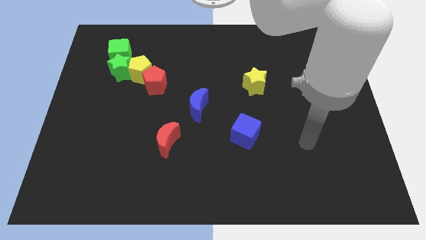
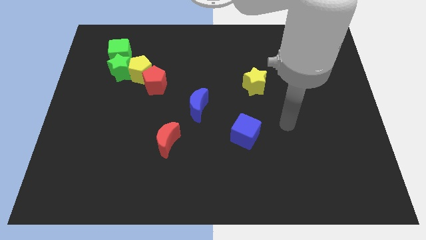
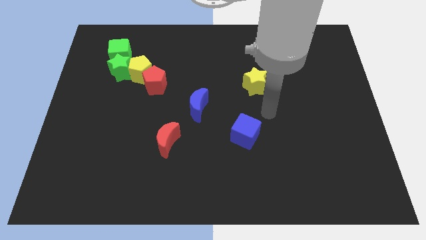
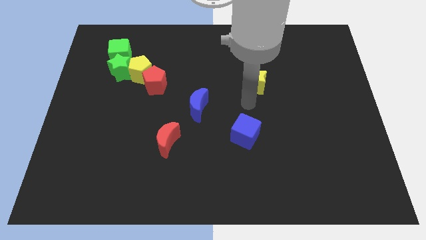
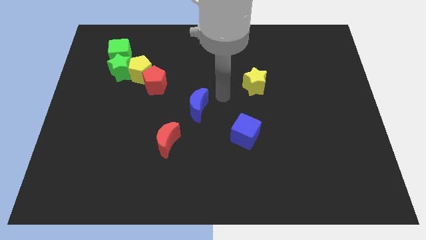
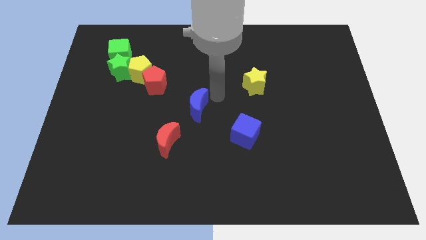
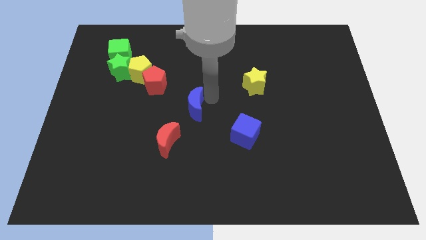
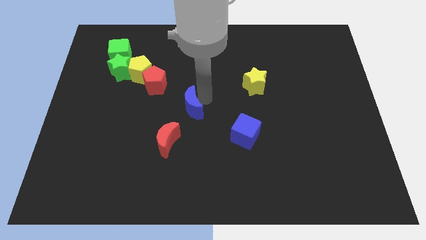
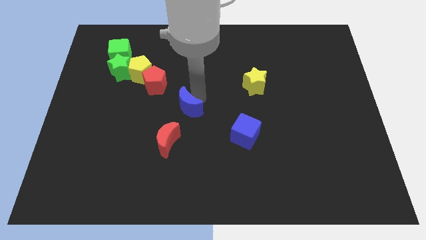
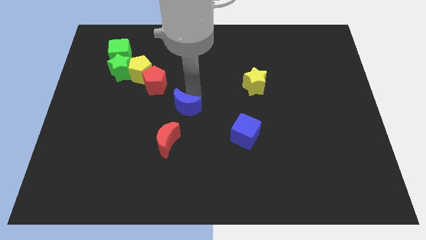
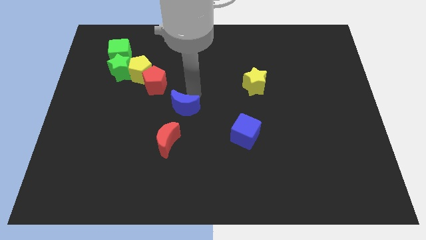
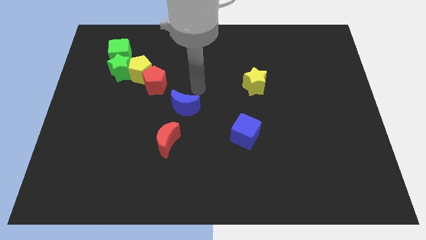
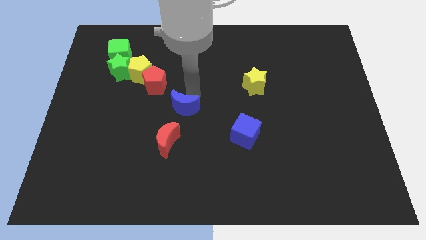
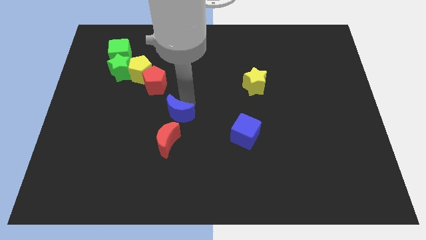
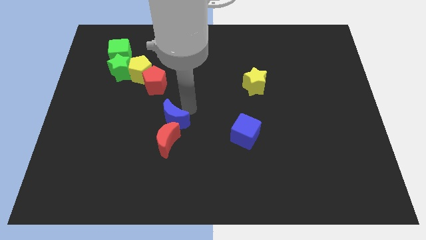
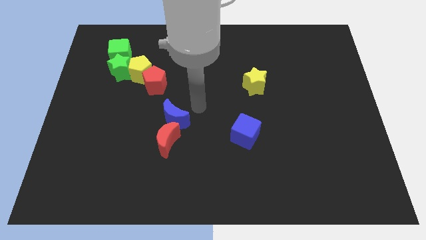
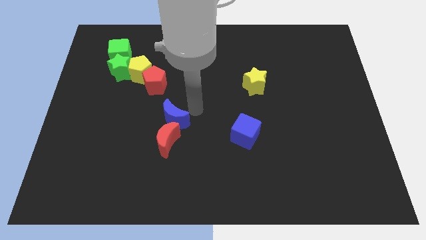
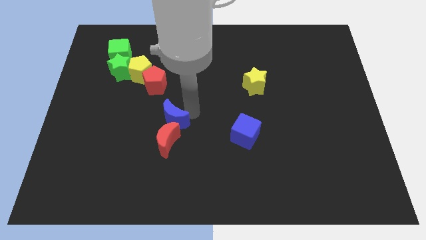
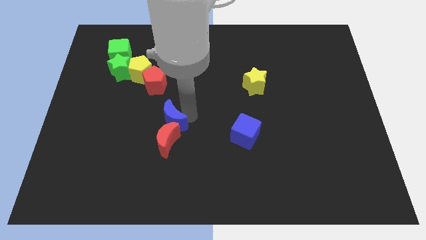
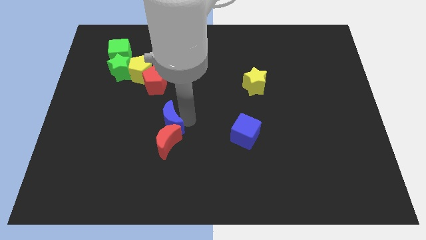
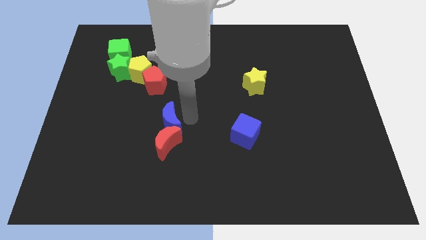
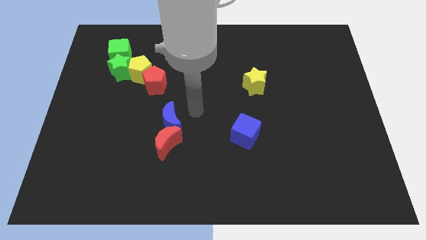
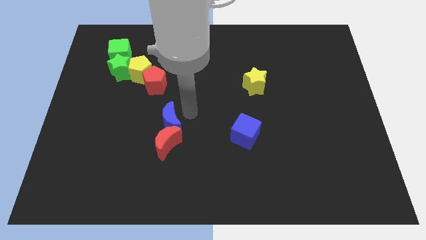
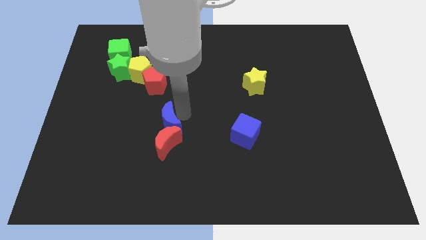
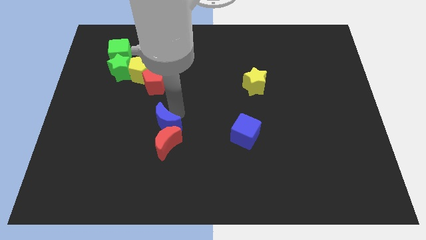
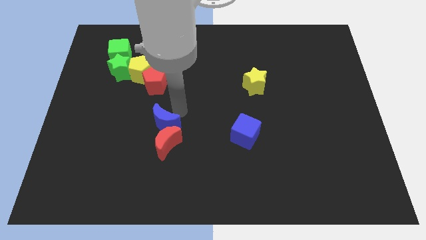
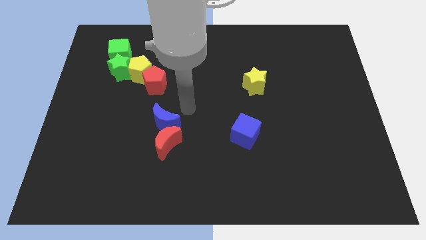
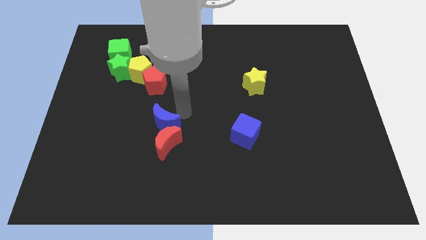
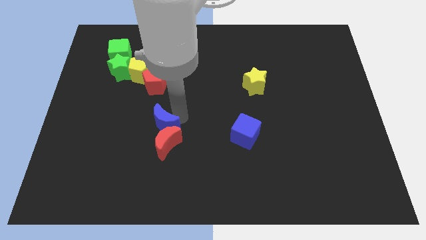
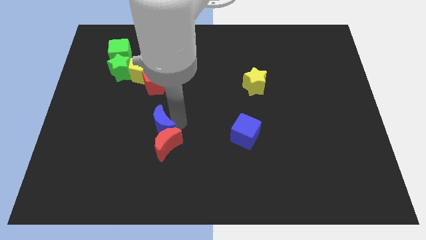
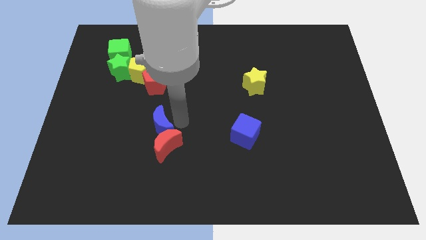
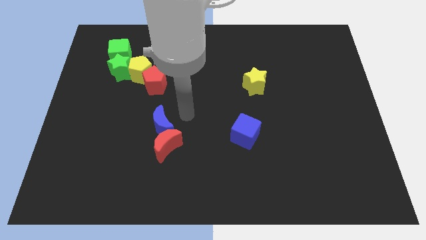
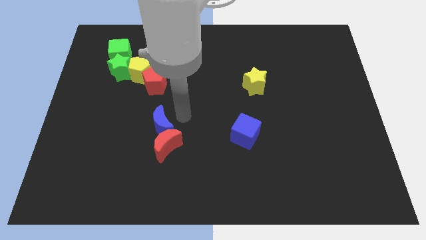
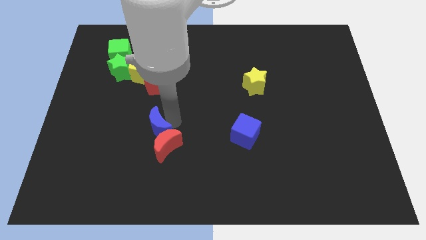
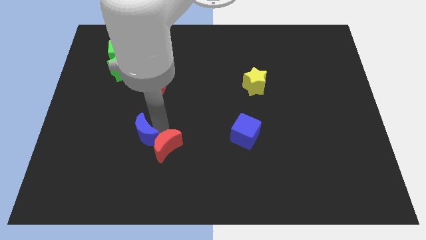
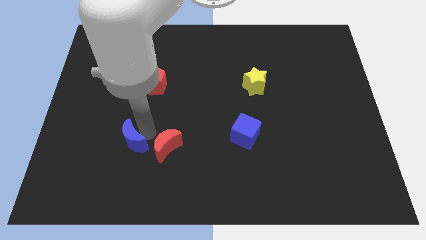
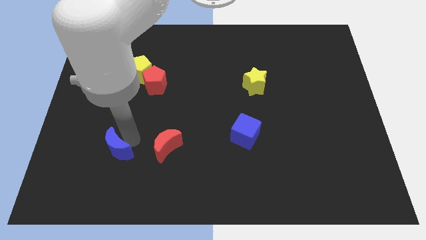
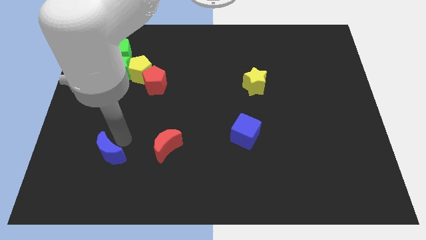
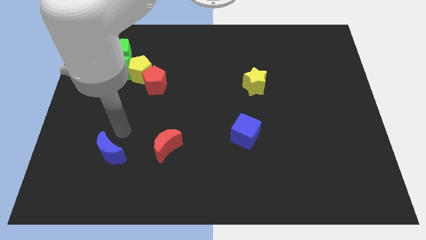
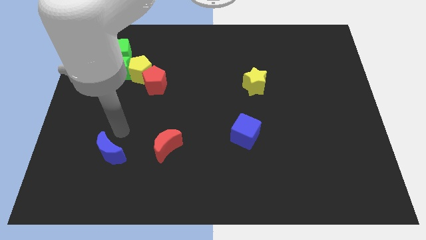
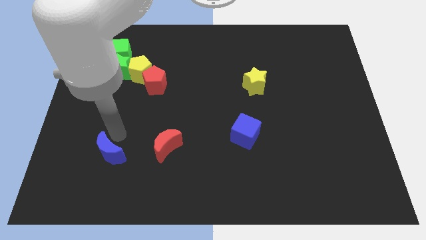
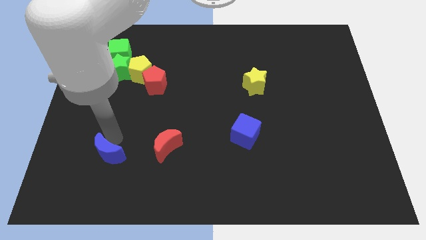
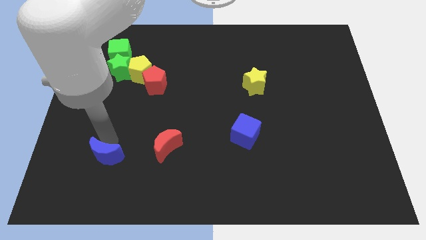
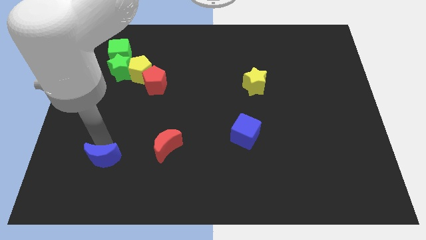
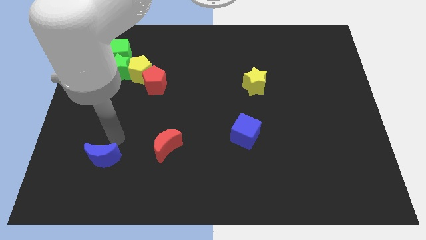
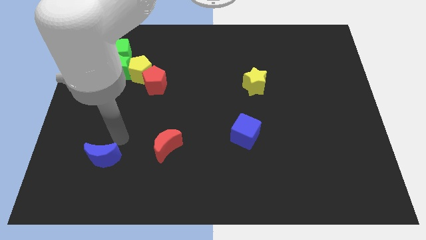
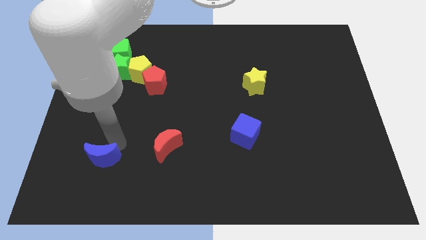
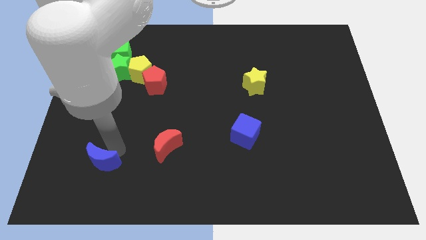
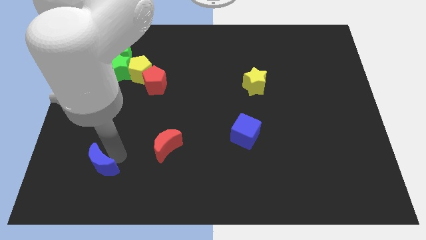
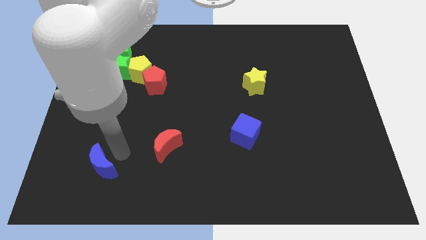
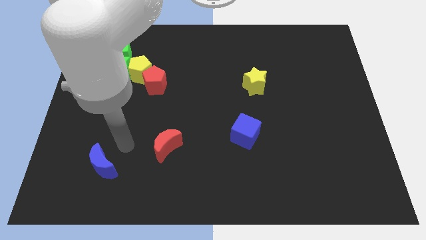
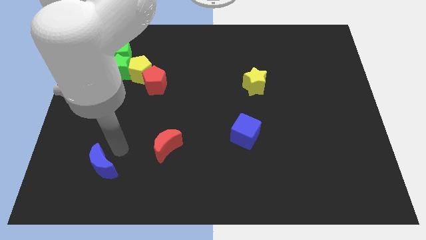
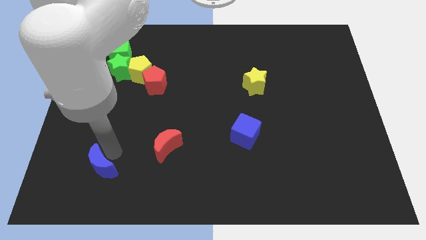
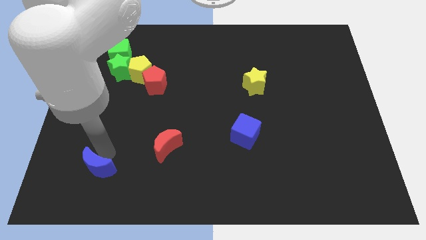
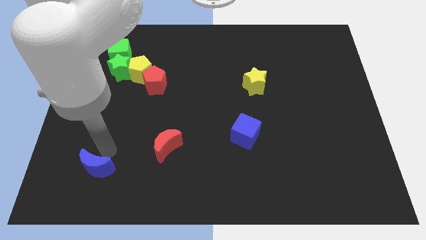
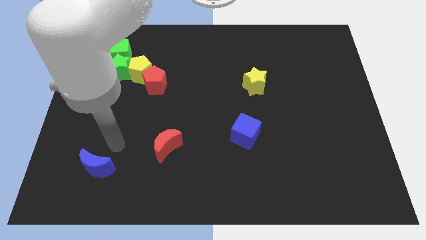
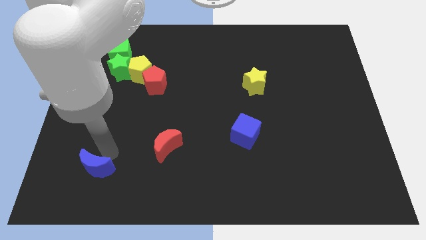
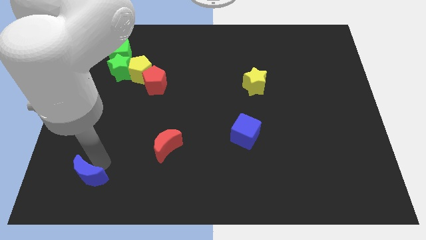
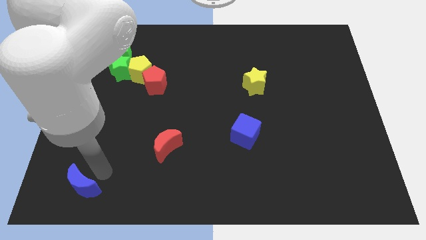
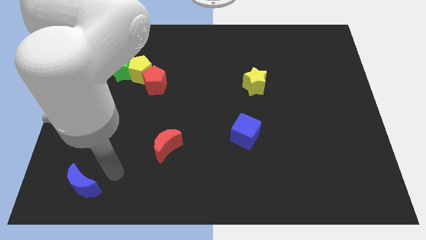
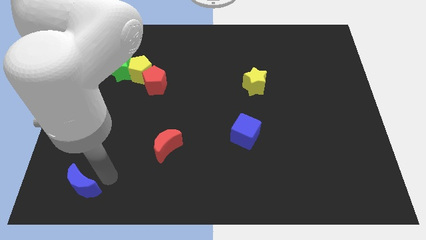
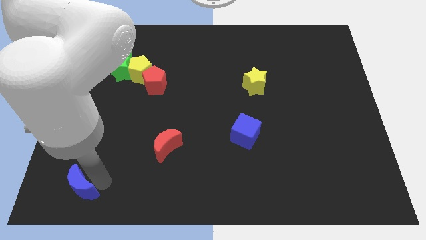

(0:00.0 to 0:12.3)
push the blue moon to the bottom left of the board

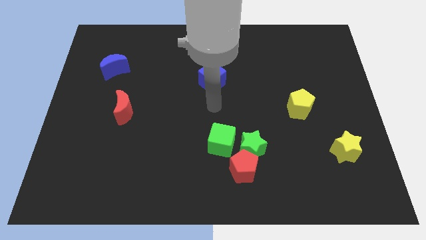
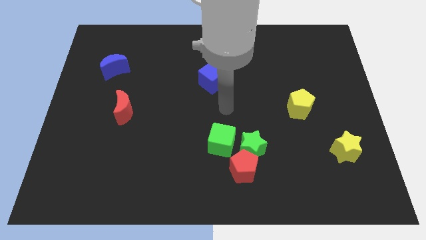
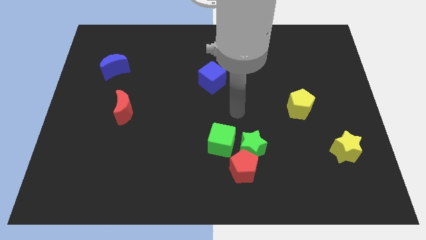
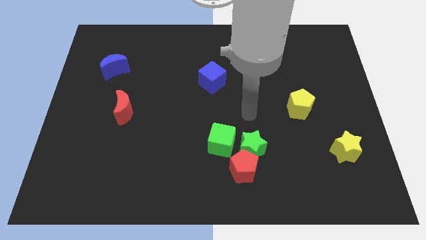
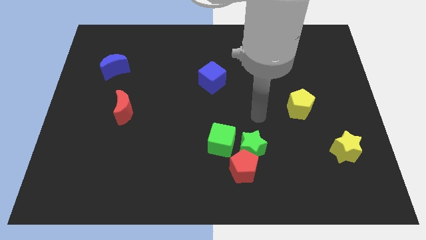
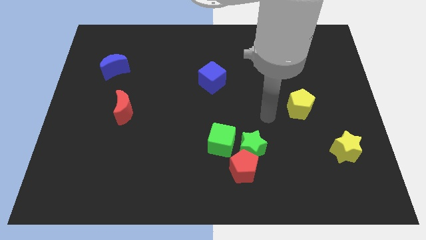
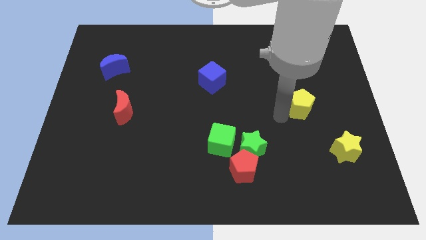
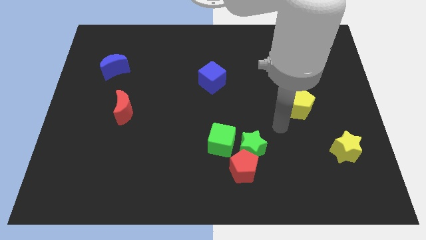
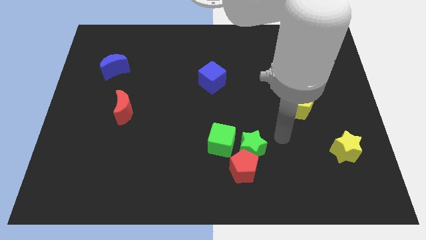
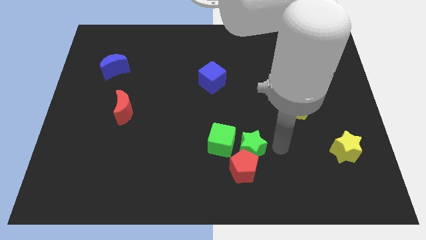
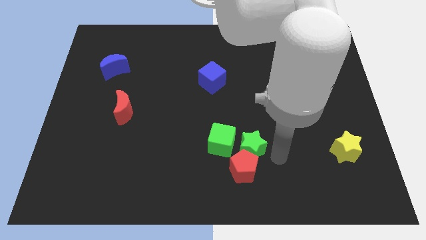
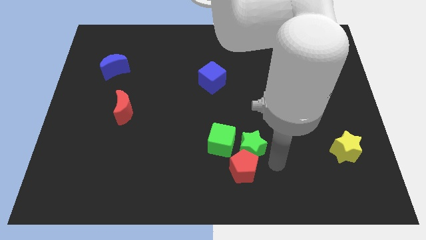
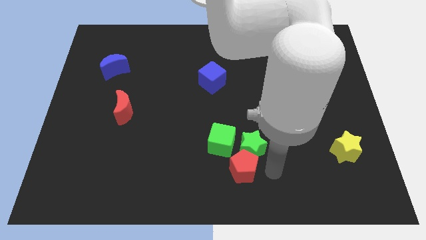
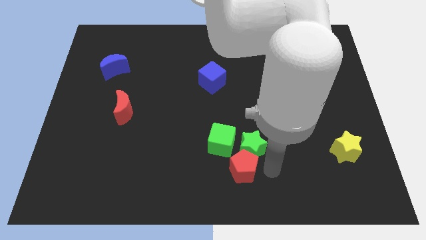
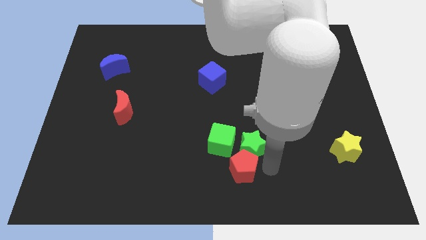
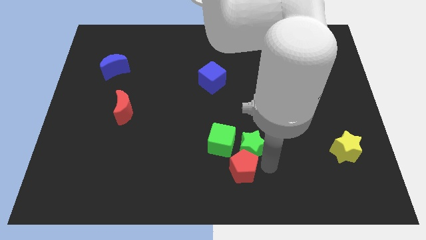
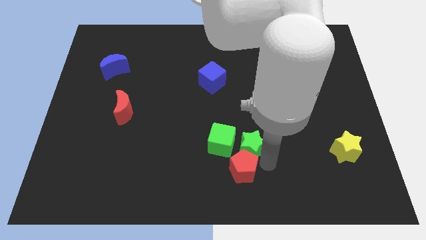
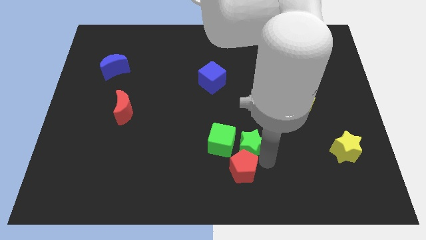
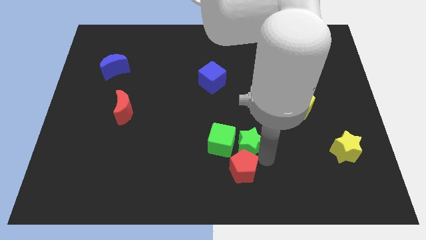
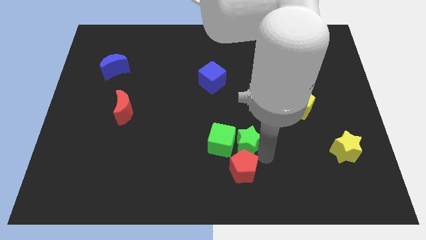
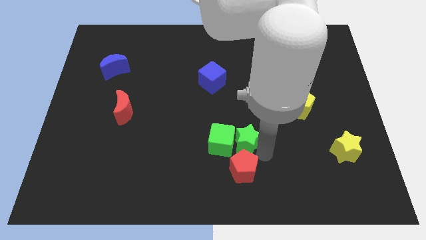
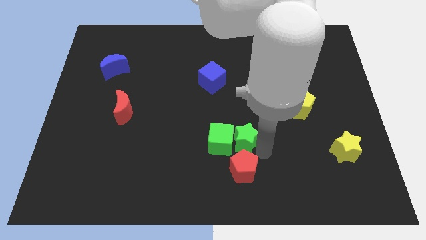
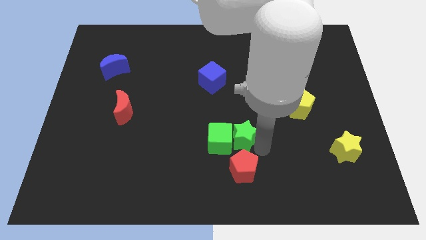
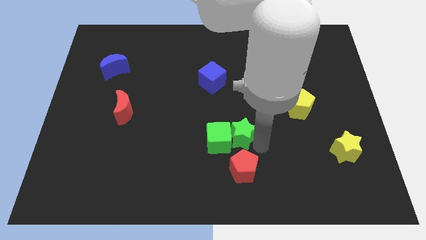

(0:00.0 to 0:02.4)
slide the green star to the middle of the board
